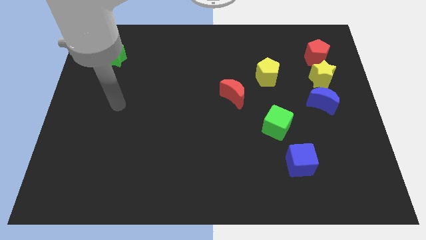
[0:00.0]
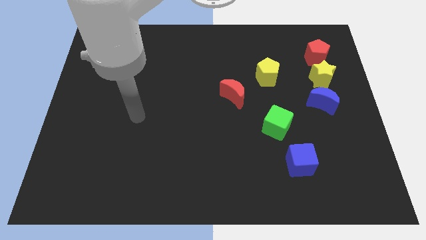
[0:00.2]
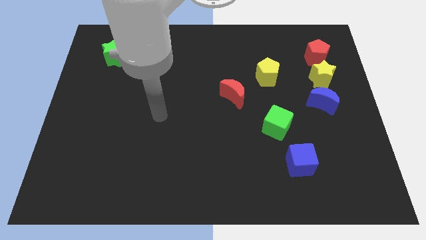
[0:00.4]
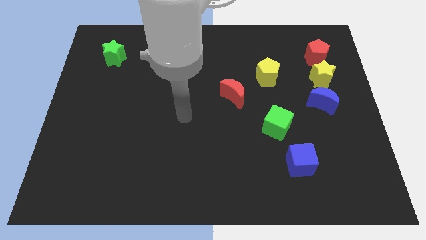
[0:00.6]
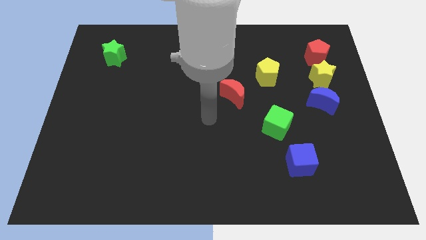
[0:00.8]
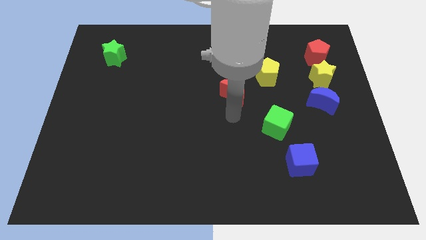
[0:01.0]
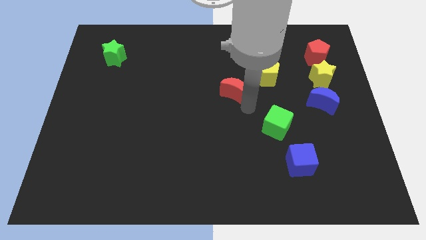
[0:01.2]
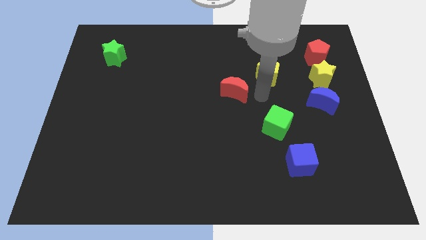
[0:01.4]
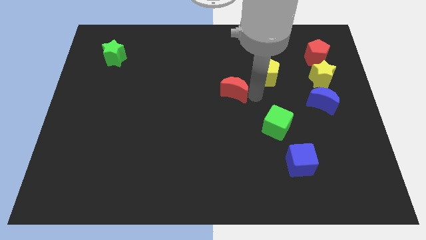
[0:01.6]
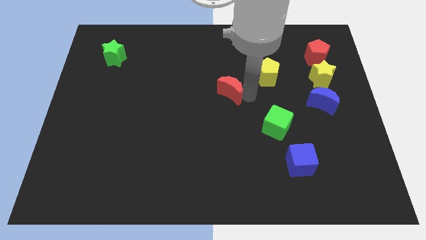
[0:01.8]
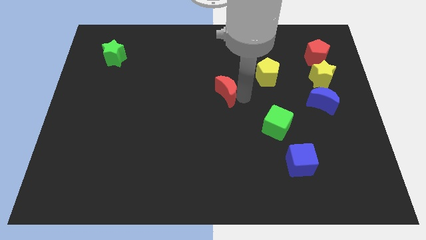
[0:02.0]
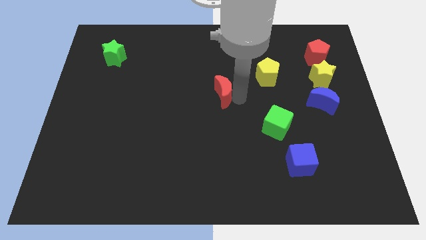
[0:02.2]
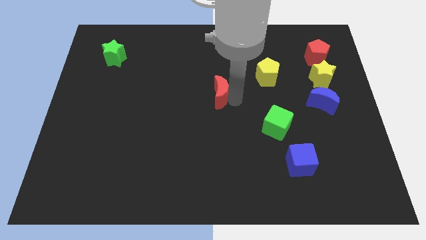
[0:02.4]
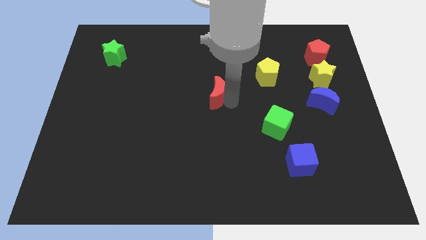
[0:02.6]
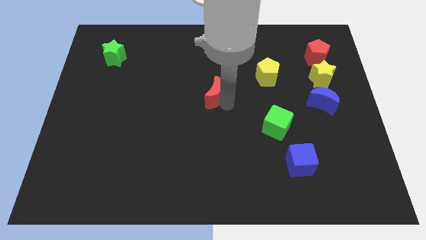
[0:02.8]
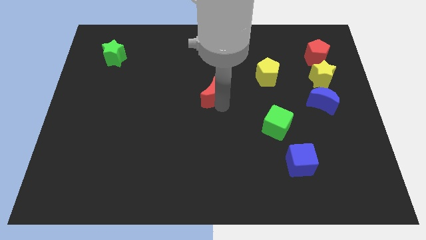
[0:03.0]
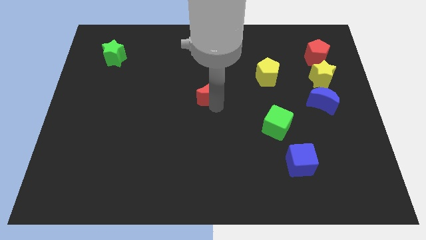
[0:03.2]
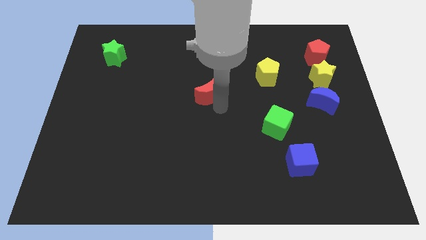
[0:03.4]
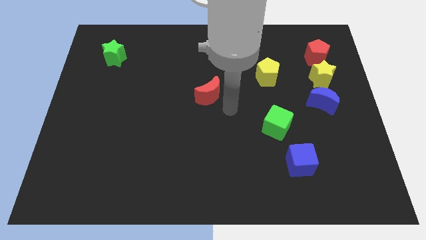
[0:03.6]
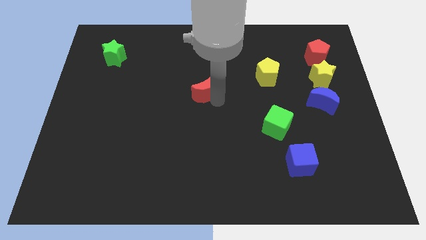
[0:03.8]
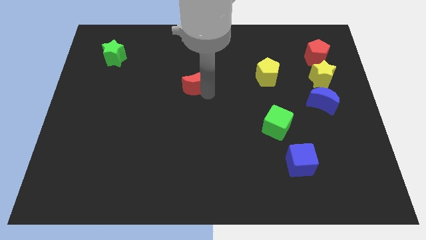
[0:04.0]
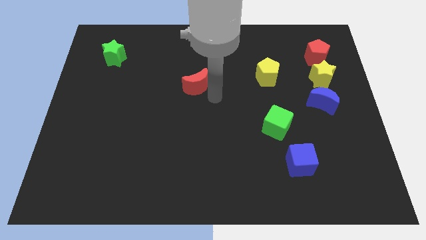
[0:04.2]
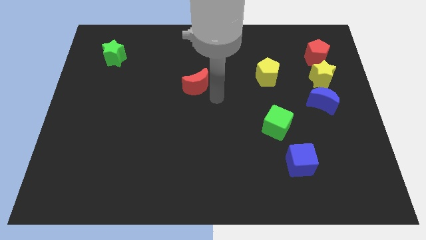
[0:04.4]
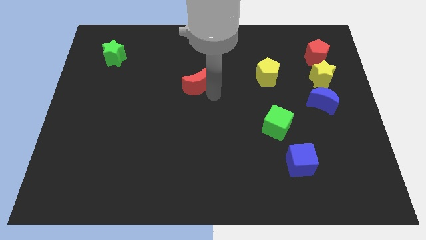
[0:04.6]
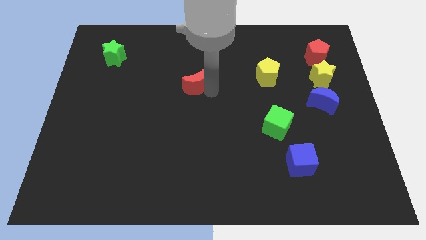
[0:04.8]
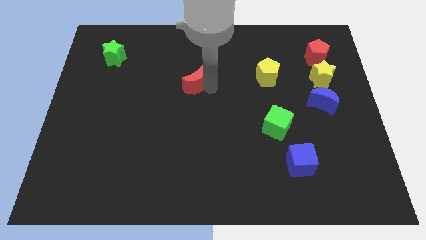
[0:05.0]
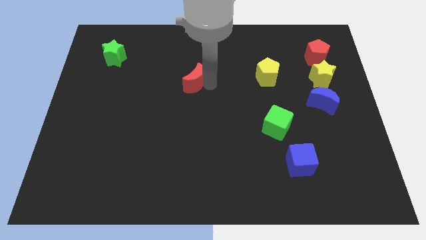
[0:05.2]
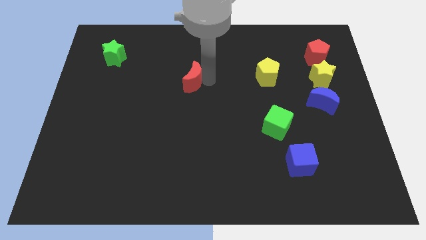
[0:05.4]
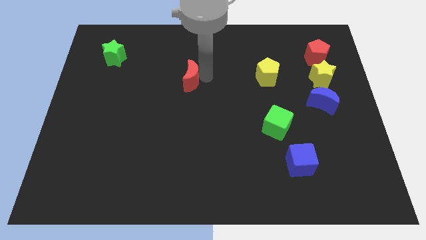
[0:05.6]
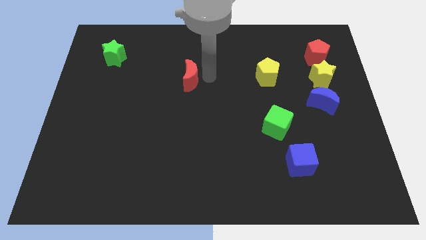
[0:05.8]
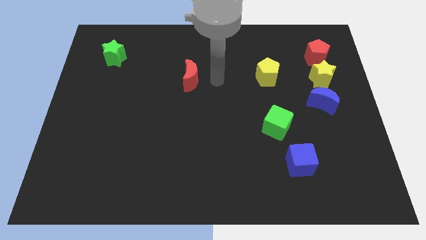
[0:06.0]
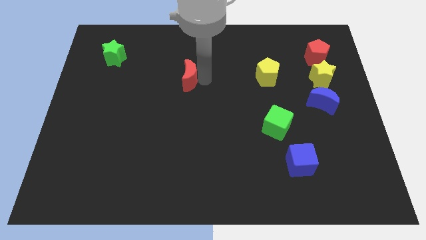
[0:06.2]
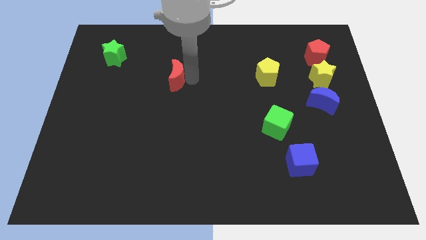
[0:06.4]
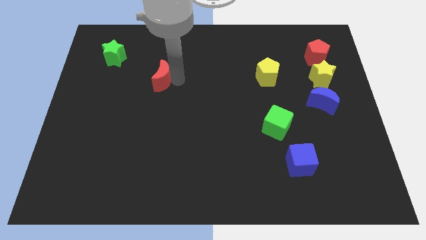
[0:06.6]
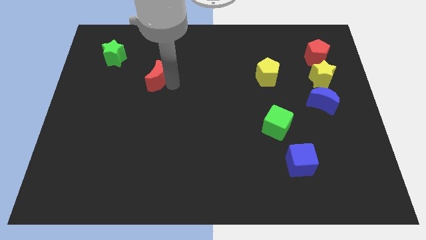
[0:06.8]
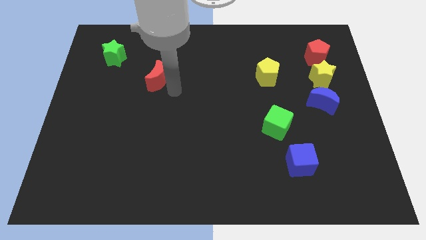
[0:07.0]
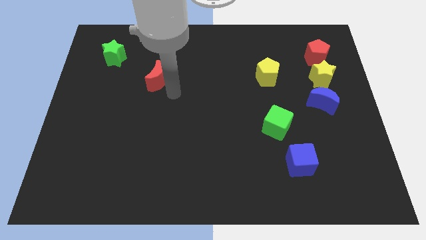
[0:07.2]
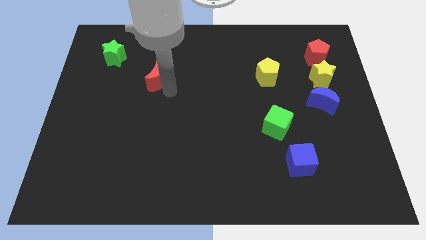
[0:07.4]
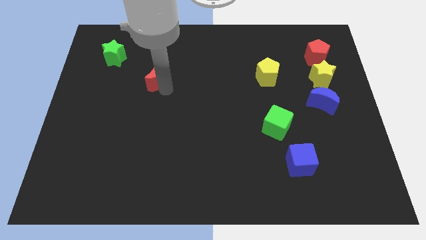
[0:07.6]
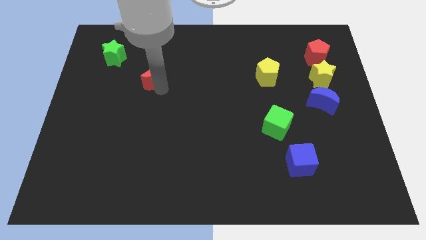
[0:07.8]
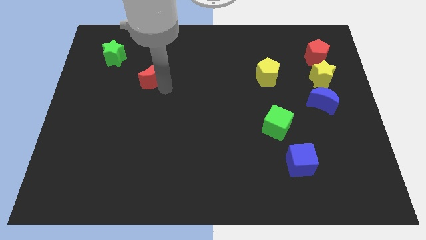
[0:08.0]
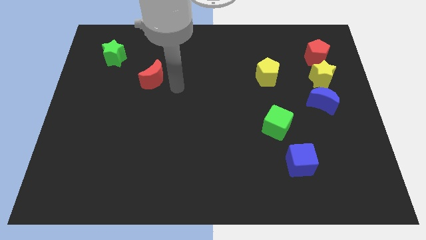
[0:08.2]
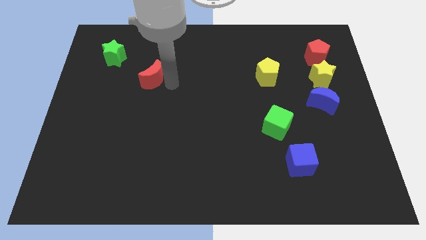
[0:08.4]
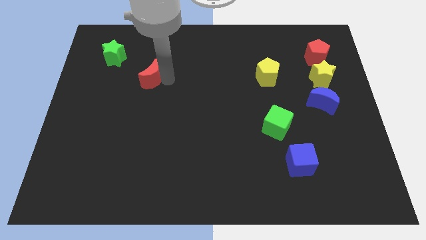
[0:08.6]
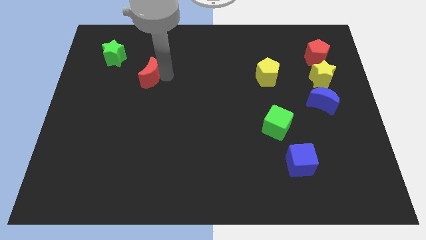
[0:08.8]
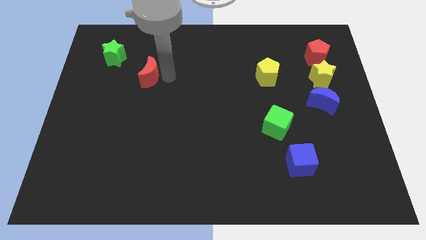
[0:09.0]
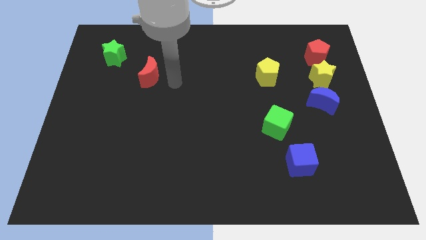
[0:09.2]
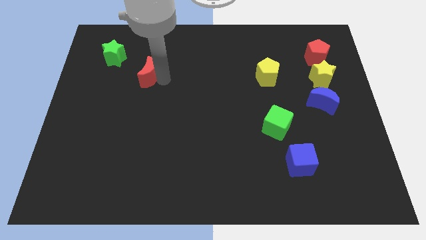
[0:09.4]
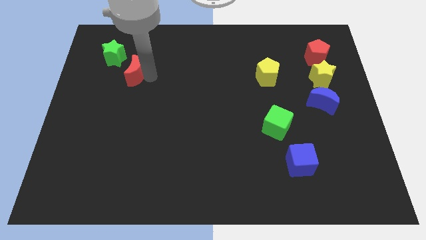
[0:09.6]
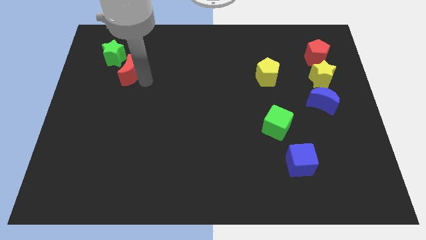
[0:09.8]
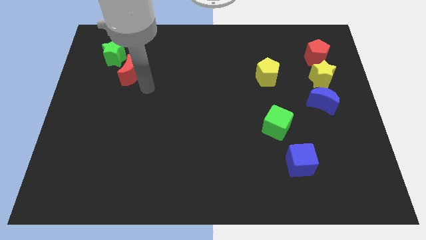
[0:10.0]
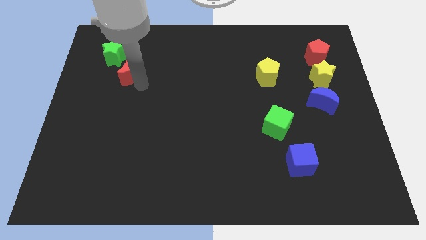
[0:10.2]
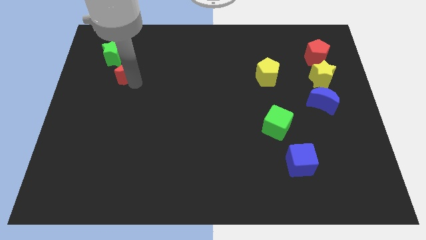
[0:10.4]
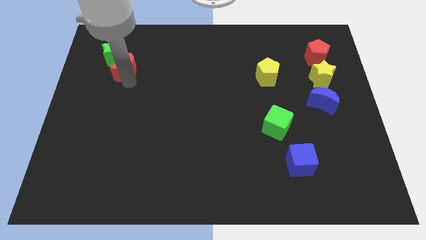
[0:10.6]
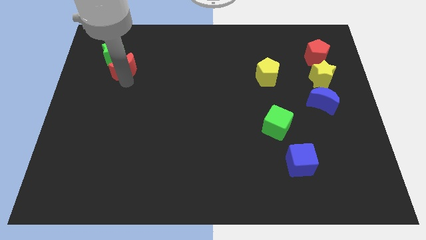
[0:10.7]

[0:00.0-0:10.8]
slide the red moon towards the green star

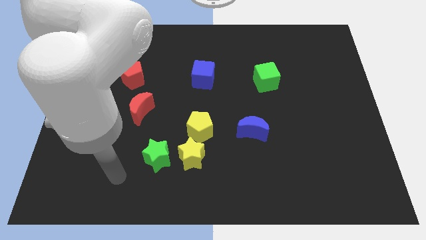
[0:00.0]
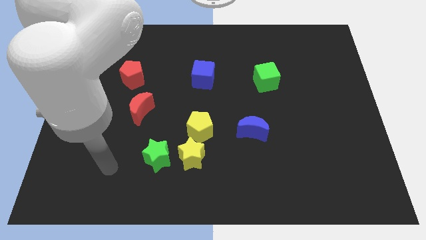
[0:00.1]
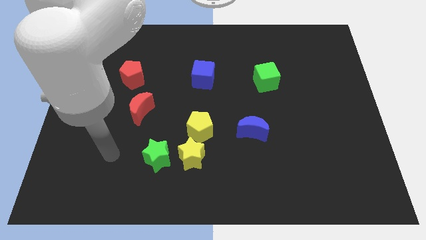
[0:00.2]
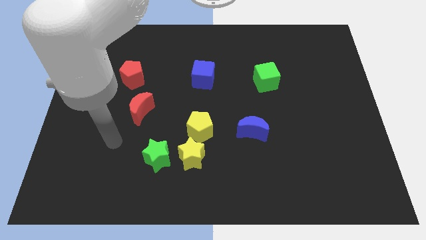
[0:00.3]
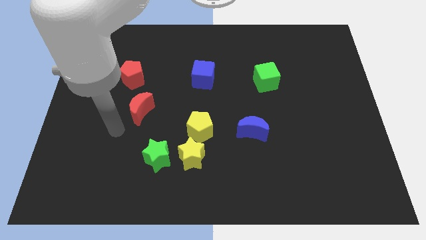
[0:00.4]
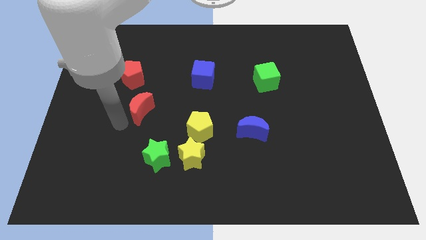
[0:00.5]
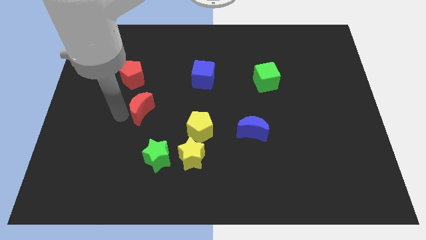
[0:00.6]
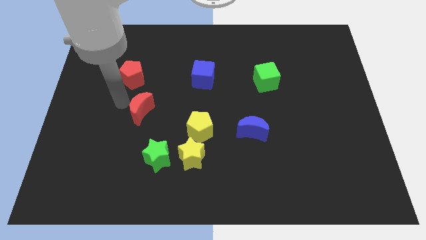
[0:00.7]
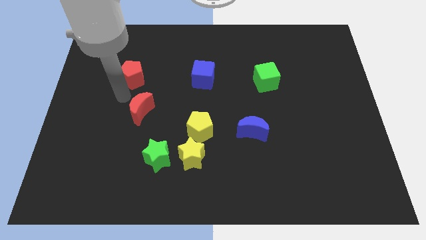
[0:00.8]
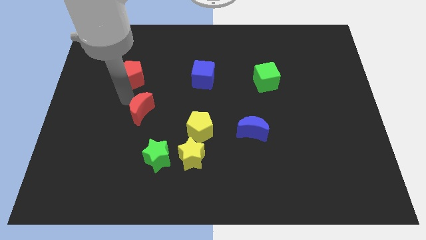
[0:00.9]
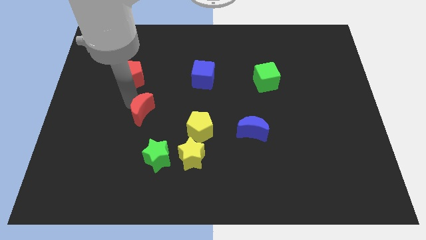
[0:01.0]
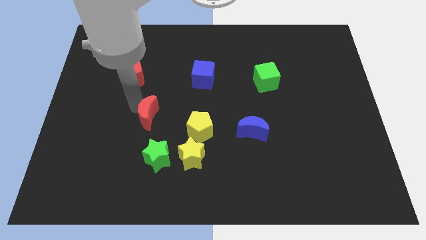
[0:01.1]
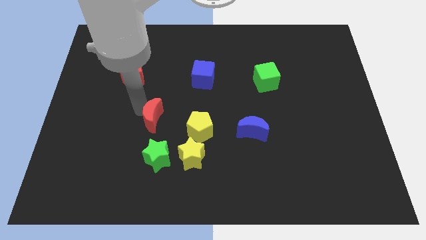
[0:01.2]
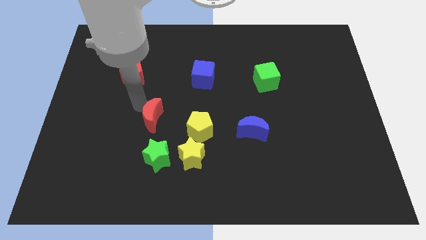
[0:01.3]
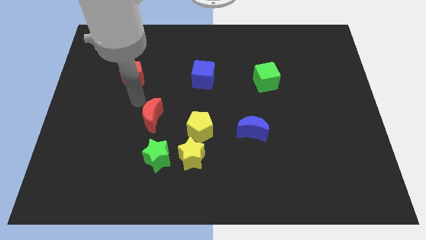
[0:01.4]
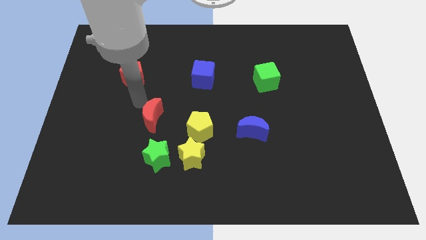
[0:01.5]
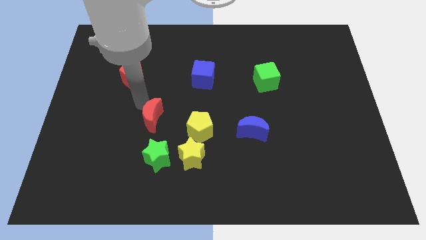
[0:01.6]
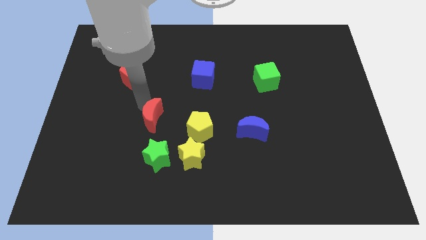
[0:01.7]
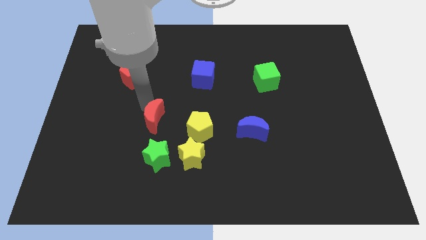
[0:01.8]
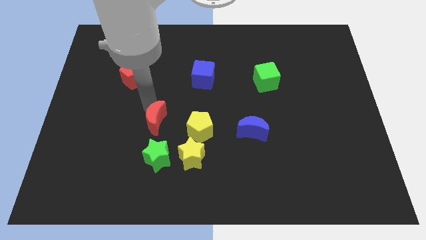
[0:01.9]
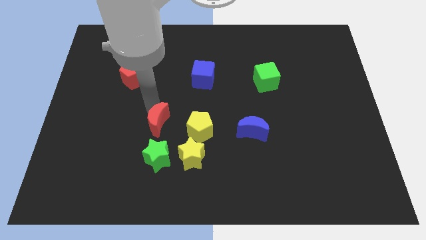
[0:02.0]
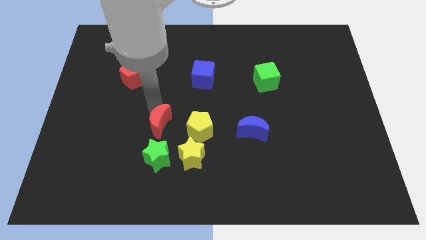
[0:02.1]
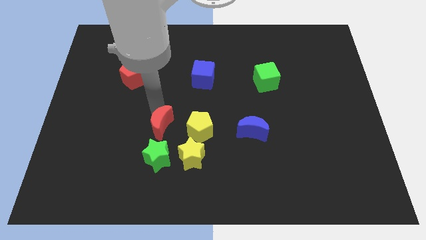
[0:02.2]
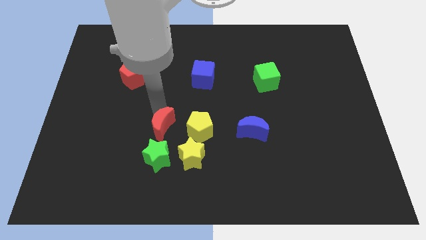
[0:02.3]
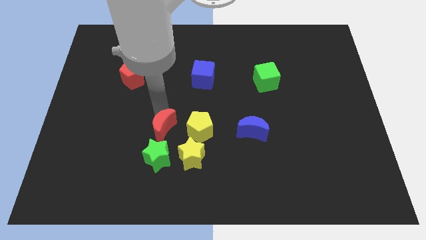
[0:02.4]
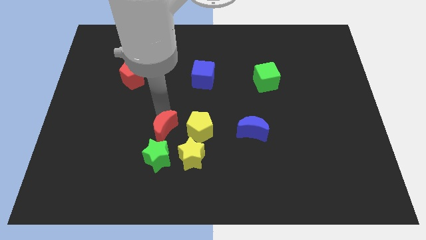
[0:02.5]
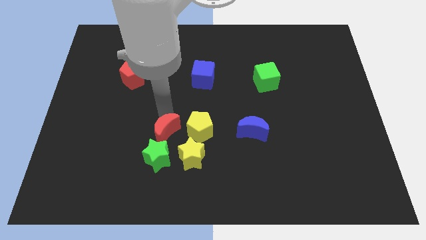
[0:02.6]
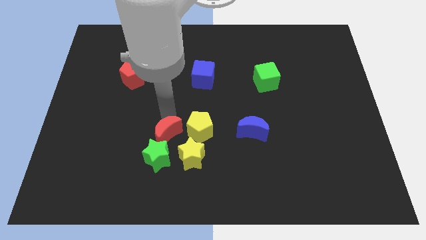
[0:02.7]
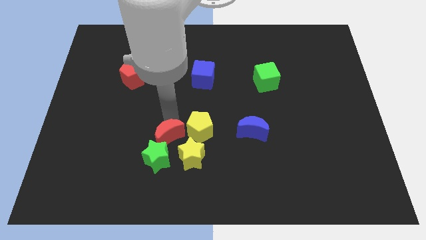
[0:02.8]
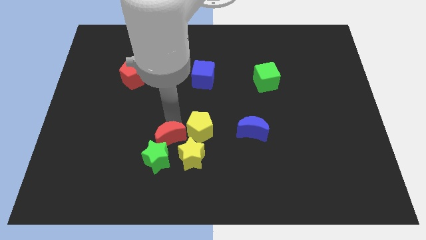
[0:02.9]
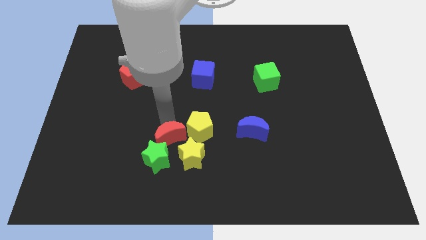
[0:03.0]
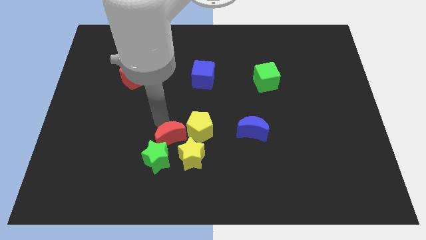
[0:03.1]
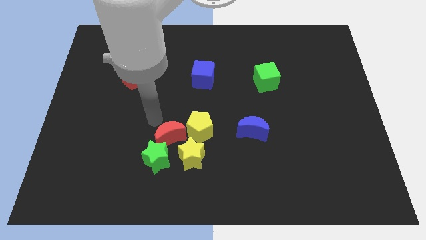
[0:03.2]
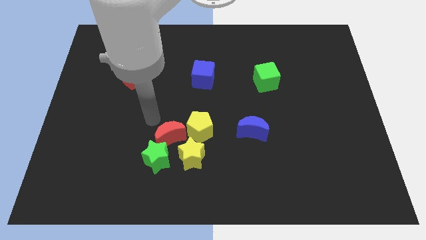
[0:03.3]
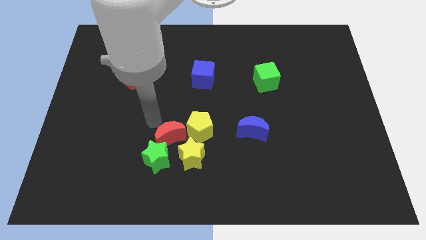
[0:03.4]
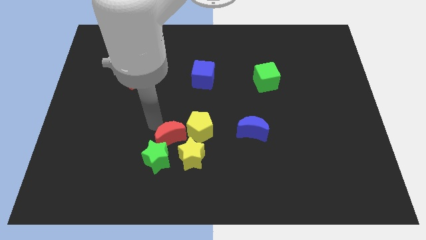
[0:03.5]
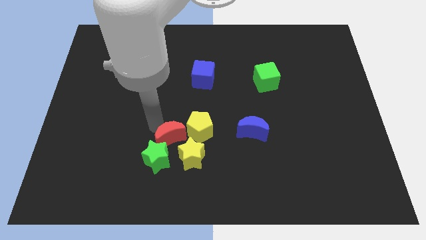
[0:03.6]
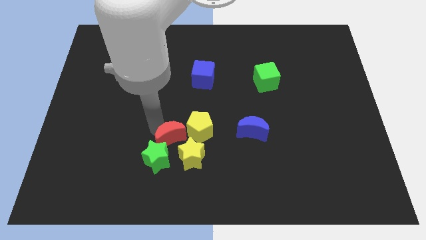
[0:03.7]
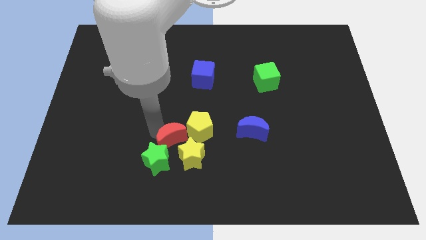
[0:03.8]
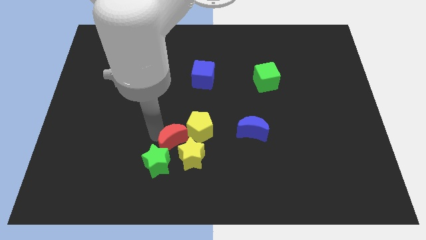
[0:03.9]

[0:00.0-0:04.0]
slide the red moon to the yellow star
